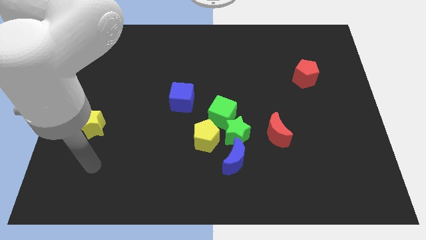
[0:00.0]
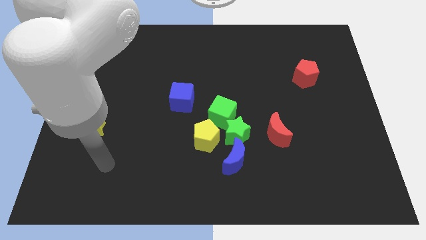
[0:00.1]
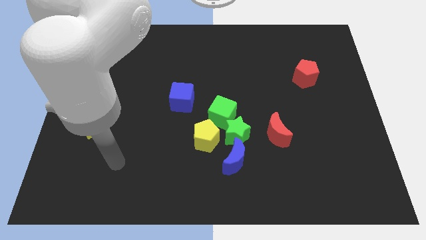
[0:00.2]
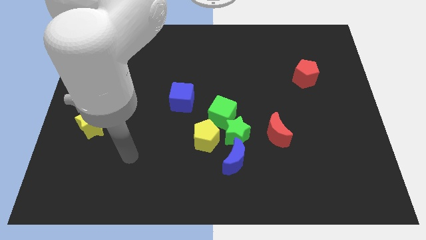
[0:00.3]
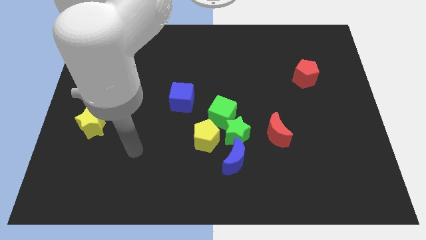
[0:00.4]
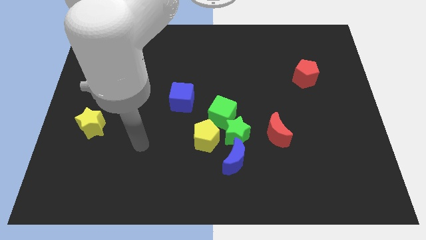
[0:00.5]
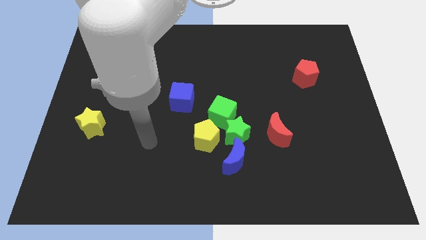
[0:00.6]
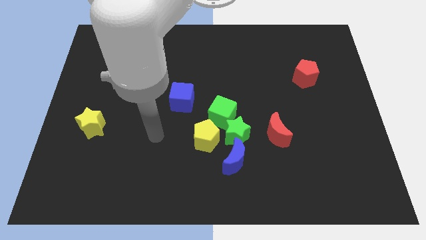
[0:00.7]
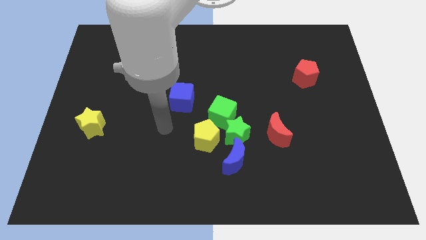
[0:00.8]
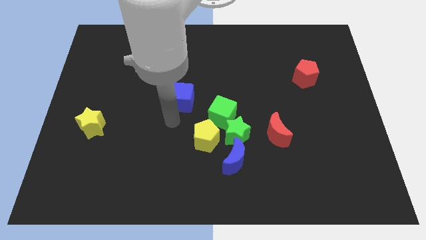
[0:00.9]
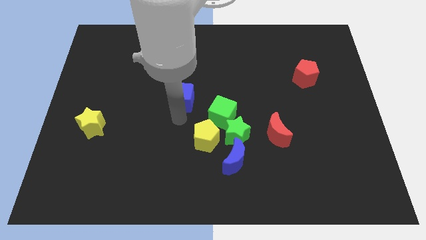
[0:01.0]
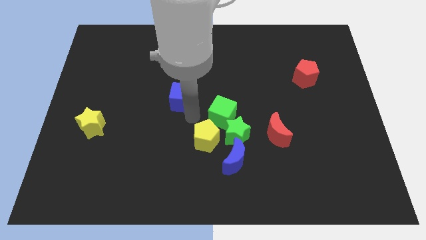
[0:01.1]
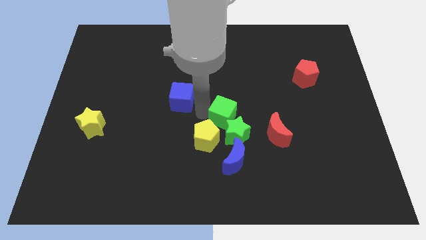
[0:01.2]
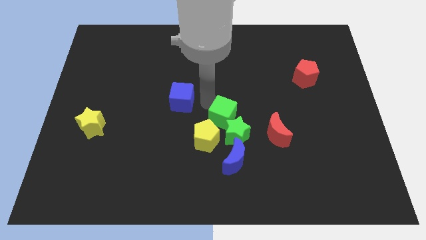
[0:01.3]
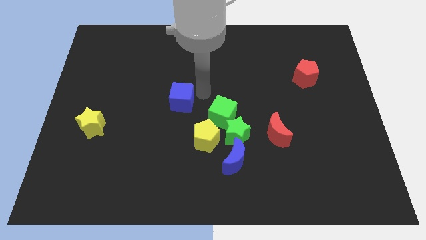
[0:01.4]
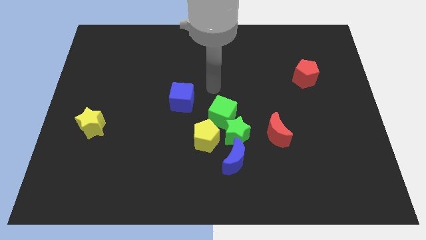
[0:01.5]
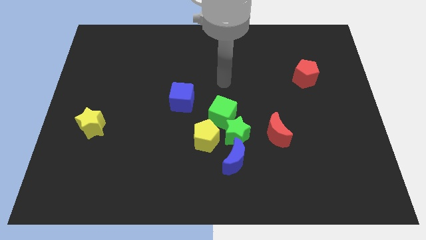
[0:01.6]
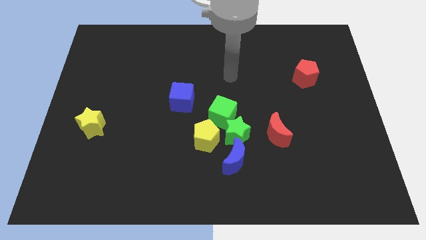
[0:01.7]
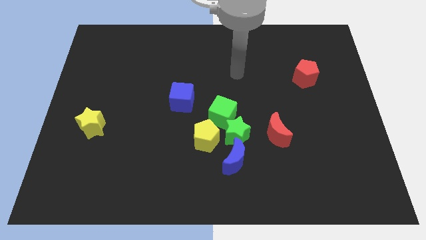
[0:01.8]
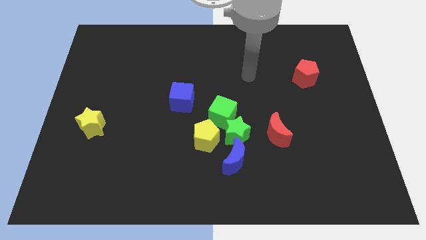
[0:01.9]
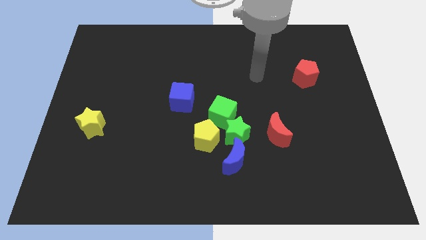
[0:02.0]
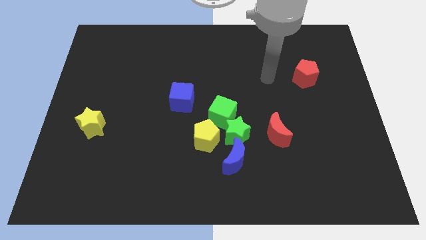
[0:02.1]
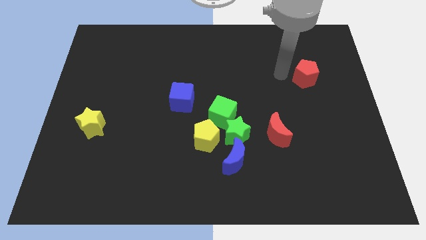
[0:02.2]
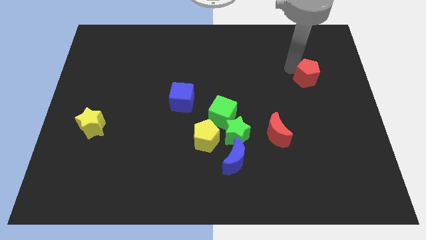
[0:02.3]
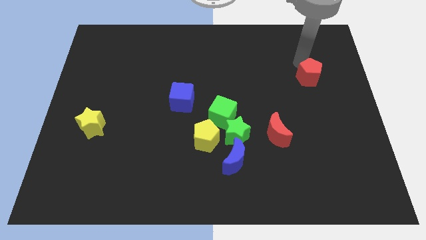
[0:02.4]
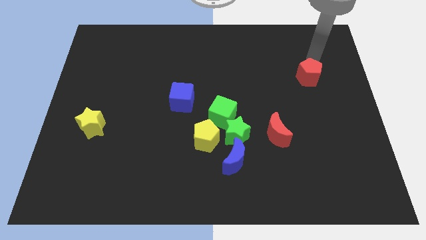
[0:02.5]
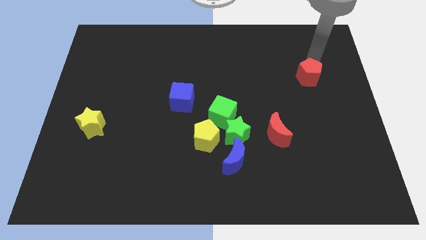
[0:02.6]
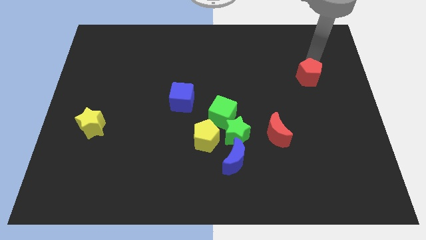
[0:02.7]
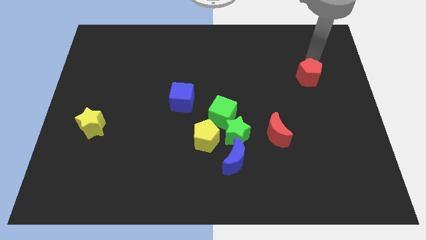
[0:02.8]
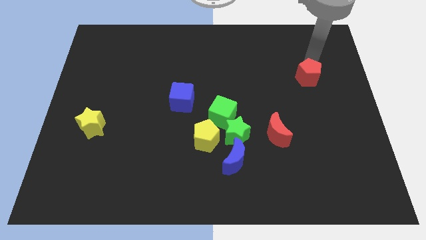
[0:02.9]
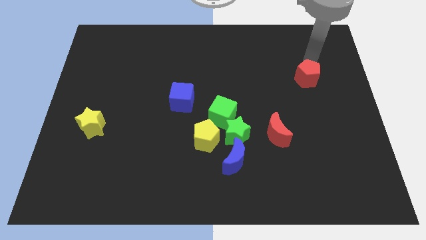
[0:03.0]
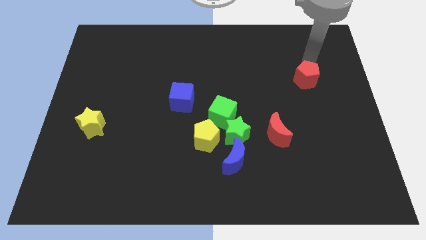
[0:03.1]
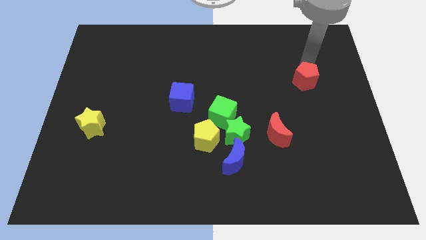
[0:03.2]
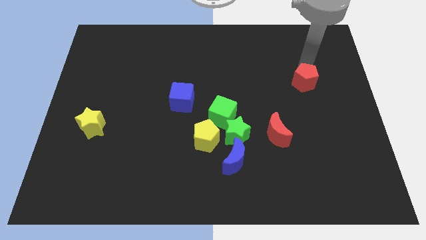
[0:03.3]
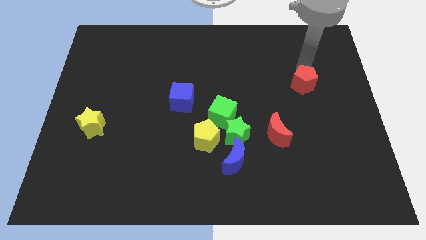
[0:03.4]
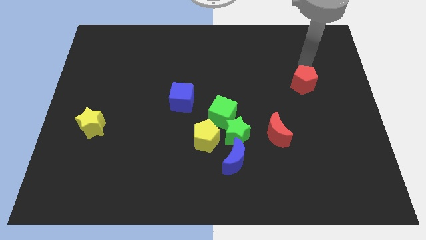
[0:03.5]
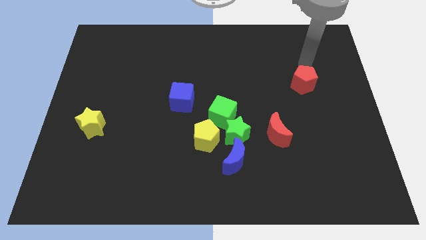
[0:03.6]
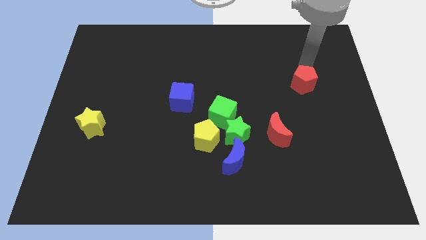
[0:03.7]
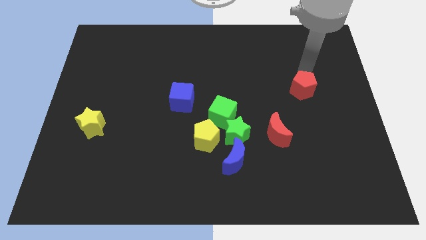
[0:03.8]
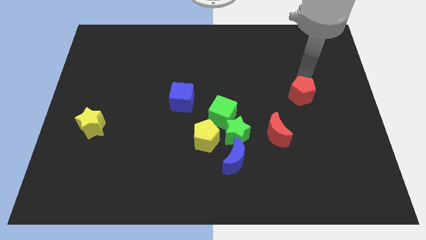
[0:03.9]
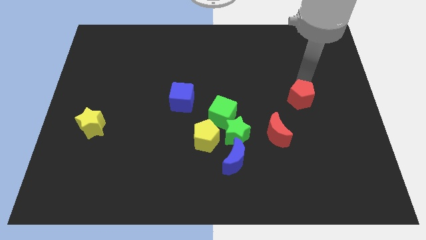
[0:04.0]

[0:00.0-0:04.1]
move the red pentagon downwards a little

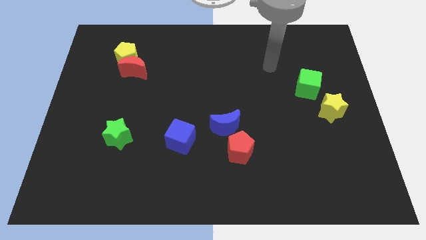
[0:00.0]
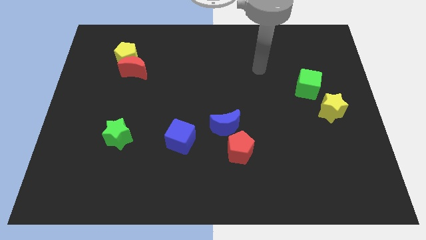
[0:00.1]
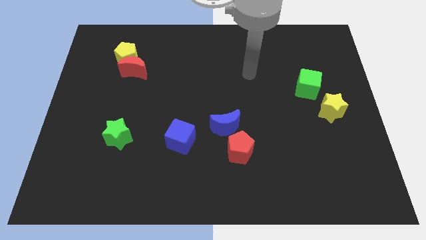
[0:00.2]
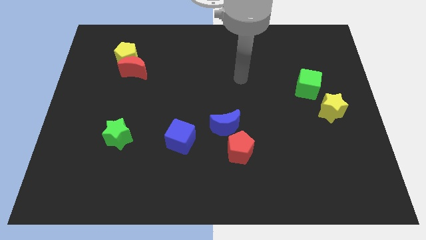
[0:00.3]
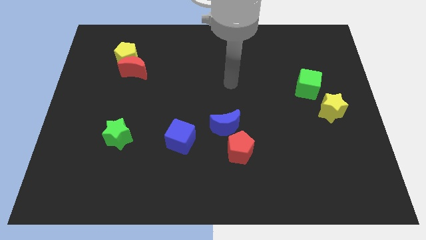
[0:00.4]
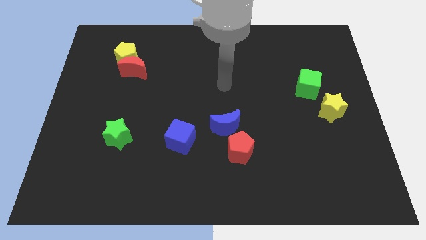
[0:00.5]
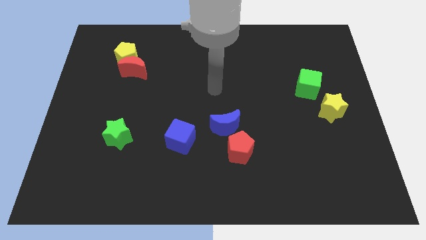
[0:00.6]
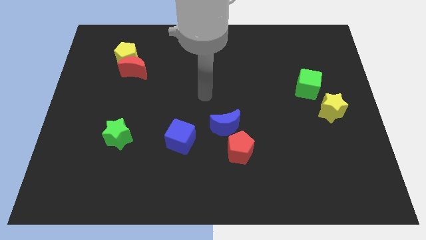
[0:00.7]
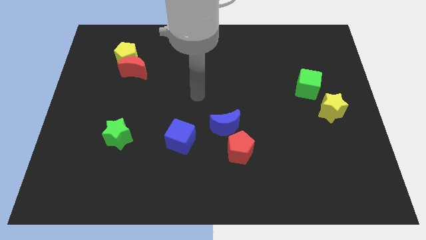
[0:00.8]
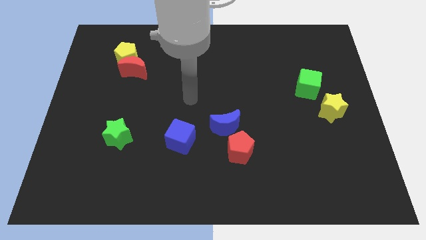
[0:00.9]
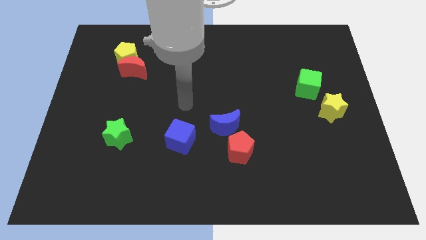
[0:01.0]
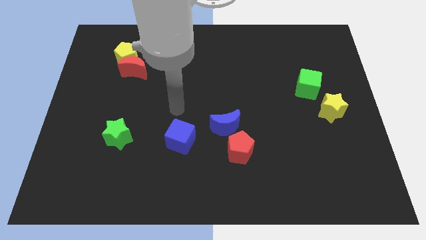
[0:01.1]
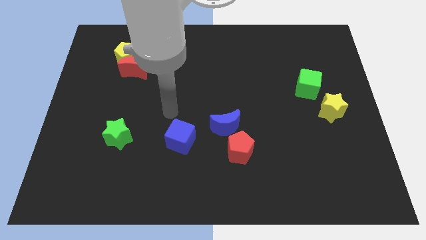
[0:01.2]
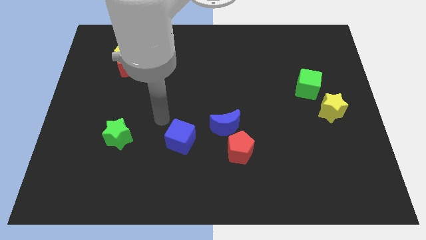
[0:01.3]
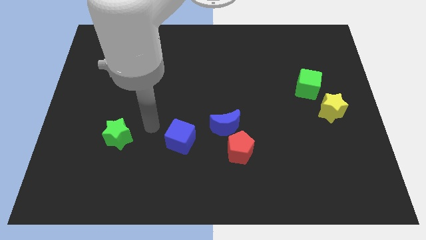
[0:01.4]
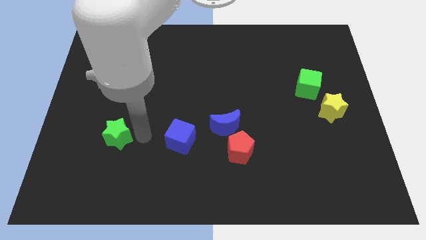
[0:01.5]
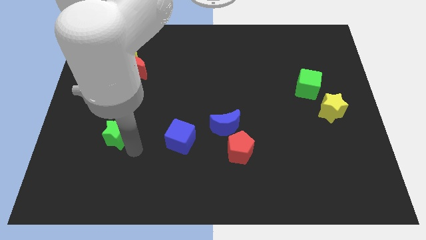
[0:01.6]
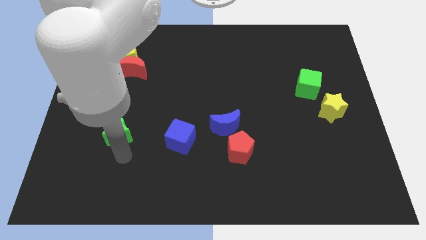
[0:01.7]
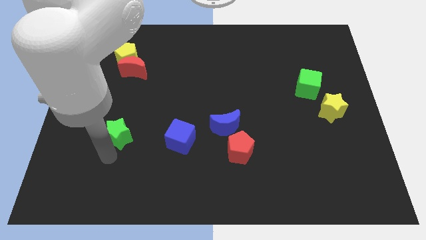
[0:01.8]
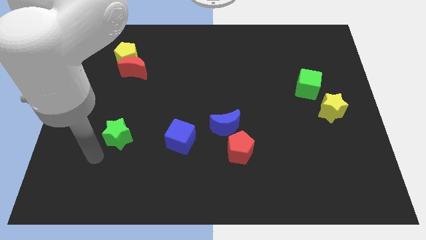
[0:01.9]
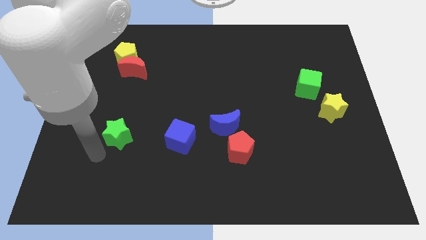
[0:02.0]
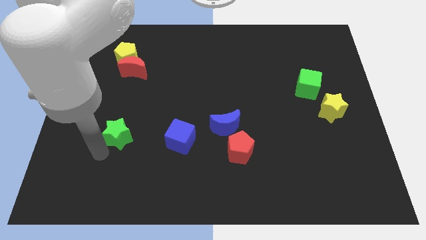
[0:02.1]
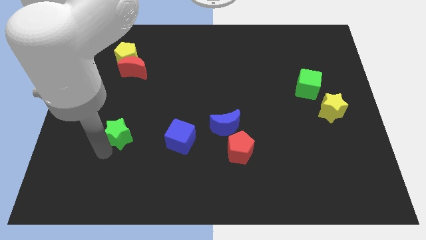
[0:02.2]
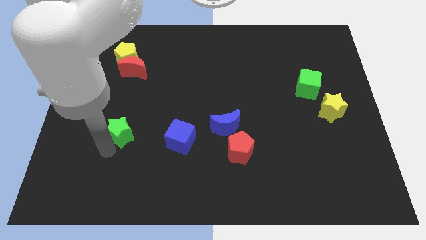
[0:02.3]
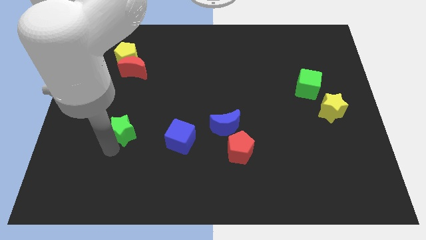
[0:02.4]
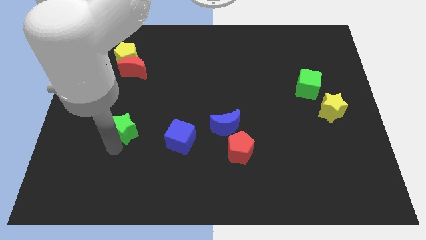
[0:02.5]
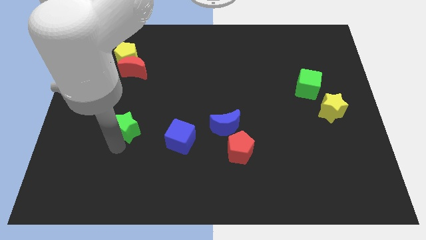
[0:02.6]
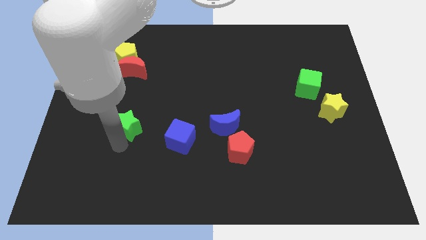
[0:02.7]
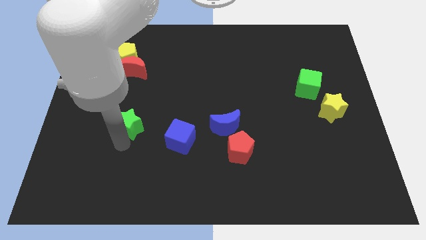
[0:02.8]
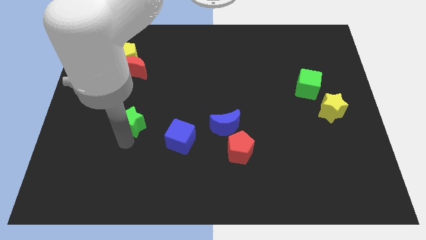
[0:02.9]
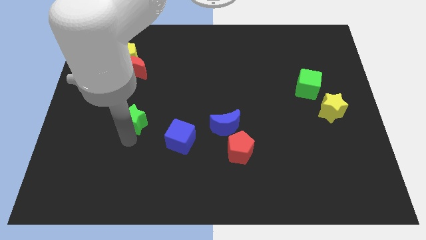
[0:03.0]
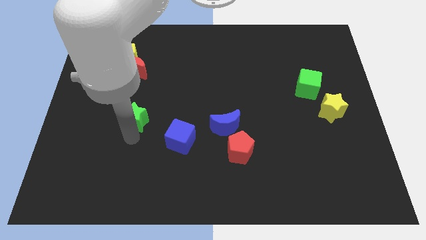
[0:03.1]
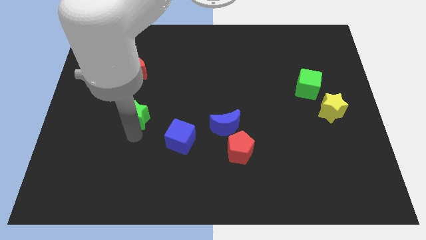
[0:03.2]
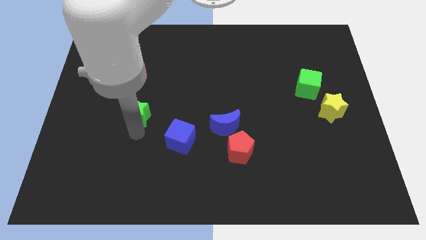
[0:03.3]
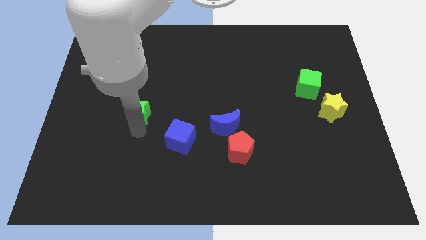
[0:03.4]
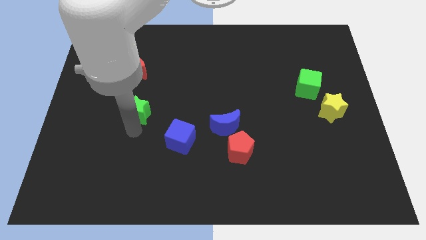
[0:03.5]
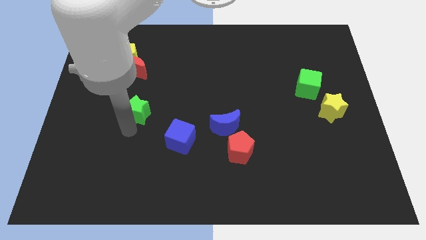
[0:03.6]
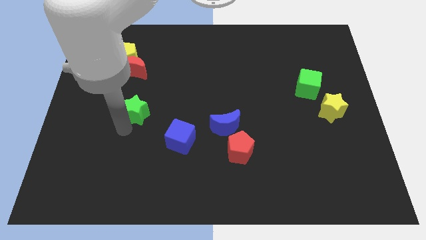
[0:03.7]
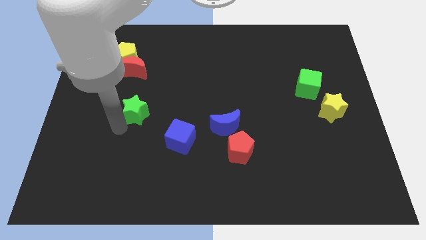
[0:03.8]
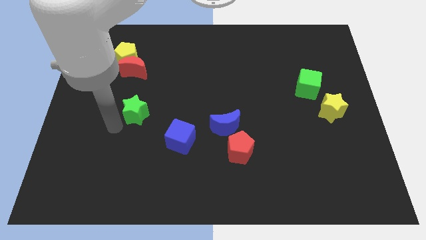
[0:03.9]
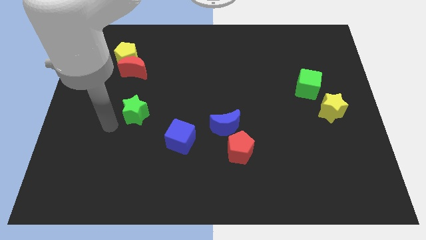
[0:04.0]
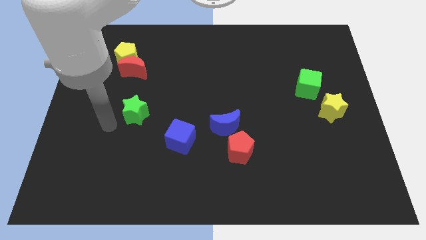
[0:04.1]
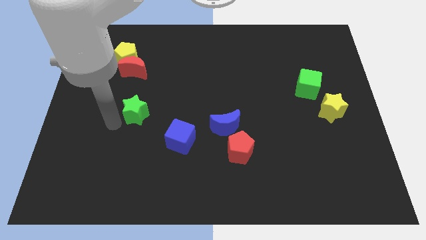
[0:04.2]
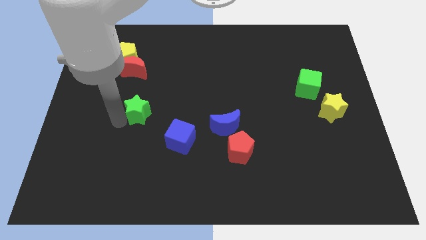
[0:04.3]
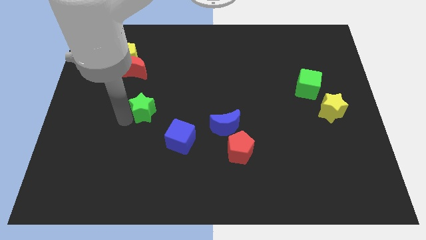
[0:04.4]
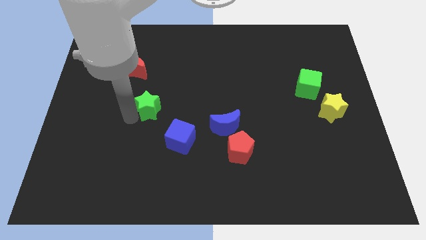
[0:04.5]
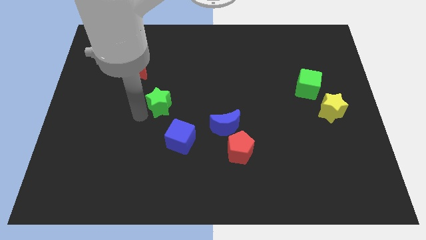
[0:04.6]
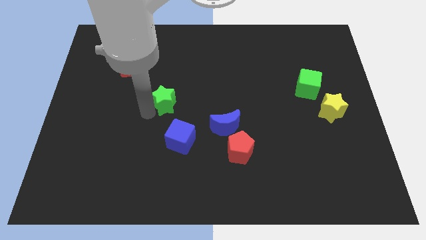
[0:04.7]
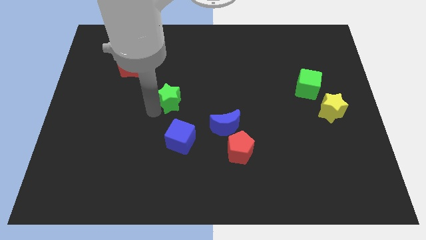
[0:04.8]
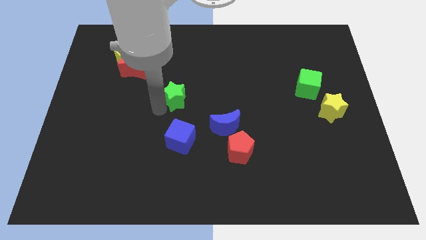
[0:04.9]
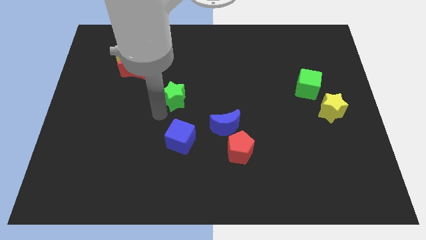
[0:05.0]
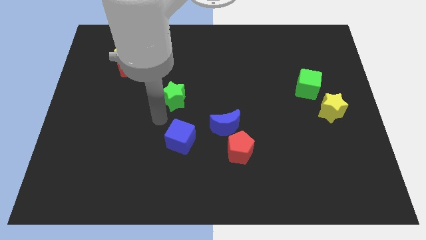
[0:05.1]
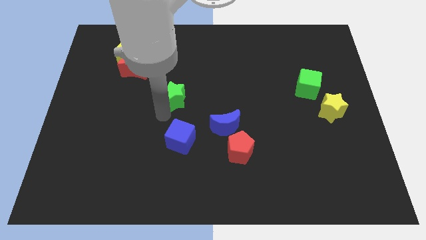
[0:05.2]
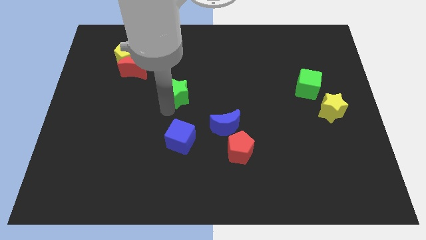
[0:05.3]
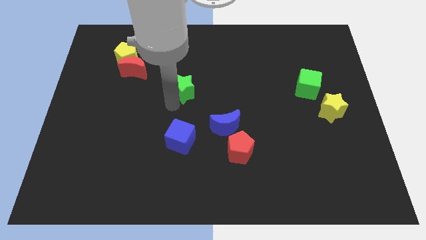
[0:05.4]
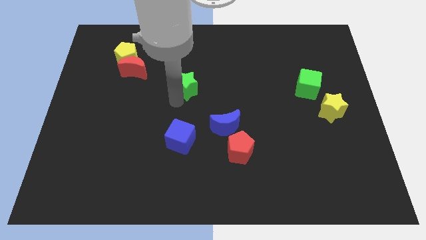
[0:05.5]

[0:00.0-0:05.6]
move the green star upwards and right diagonally
